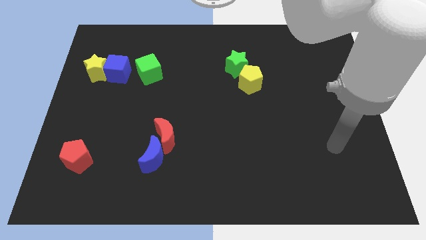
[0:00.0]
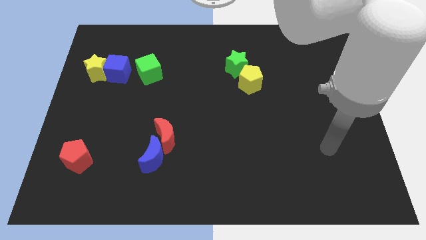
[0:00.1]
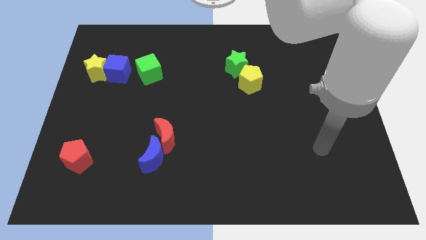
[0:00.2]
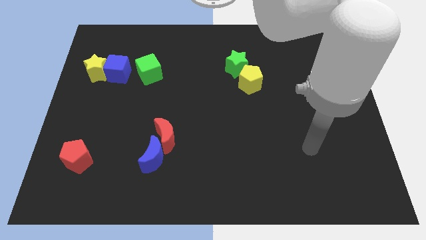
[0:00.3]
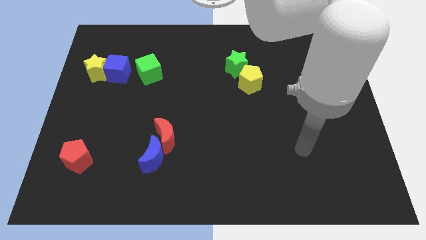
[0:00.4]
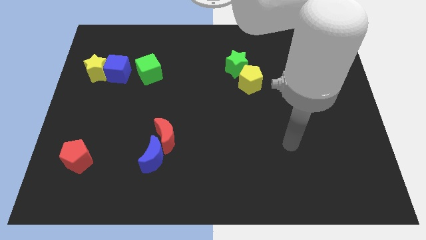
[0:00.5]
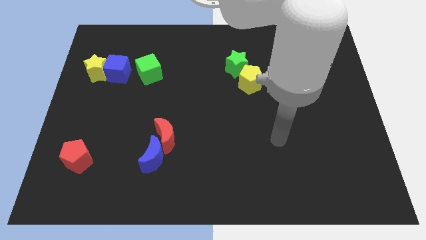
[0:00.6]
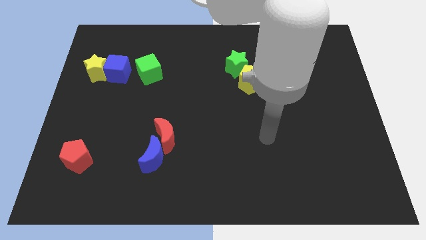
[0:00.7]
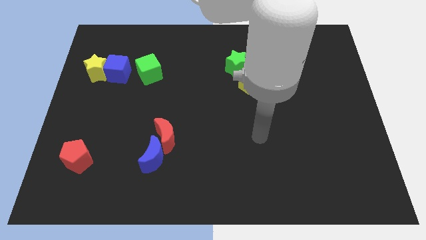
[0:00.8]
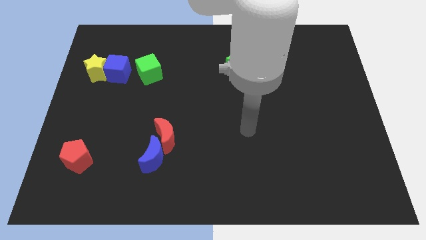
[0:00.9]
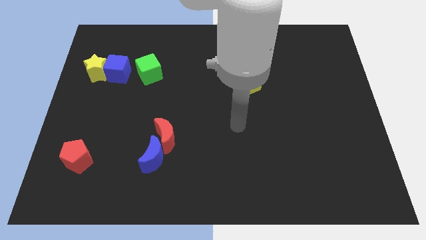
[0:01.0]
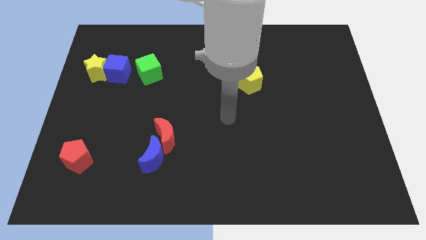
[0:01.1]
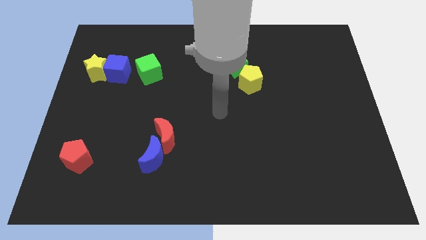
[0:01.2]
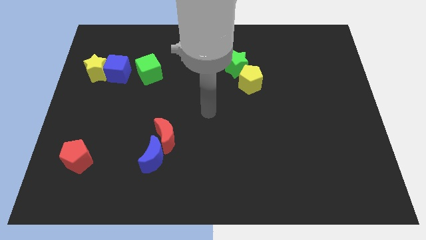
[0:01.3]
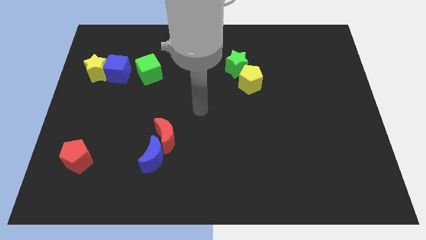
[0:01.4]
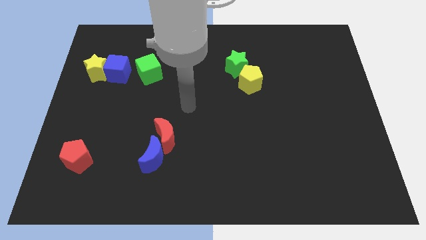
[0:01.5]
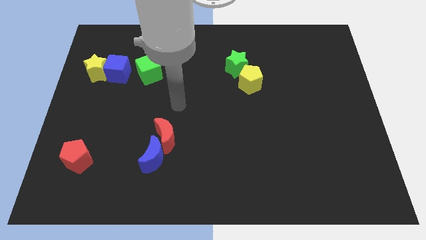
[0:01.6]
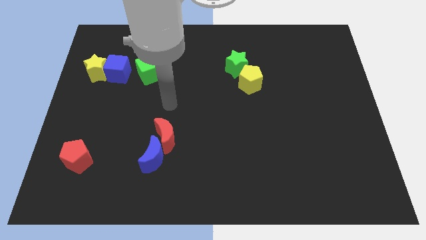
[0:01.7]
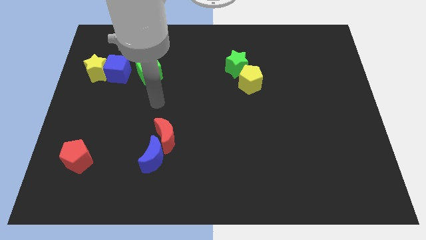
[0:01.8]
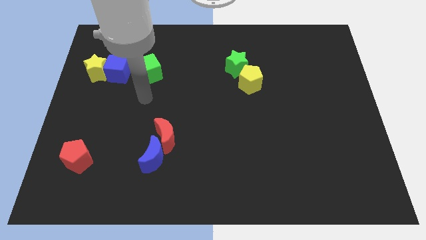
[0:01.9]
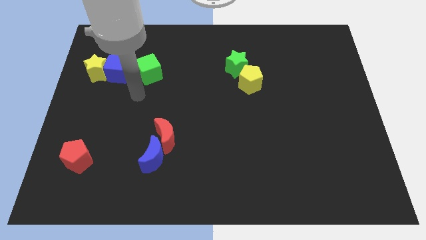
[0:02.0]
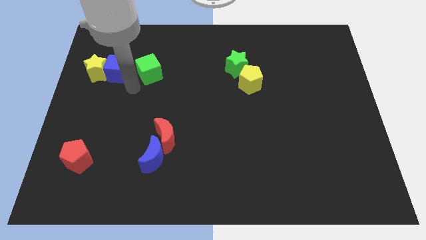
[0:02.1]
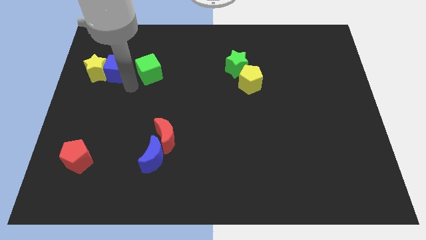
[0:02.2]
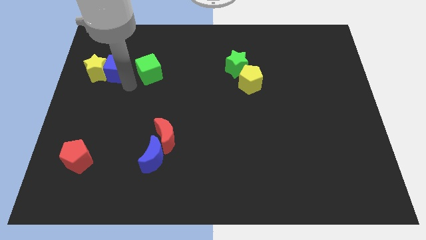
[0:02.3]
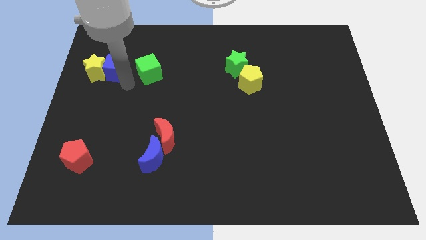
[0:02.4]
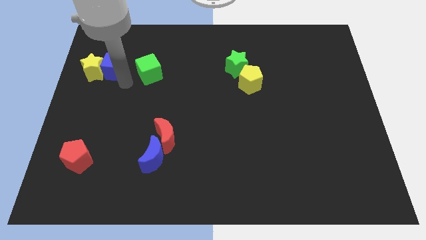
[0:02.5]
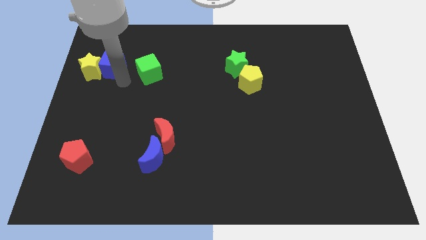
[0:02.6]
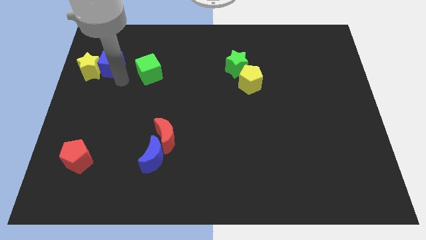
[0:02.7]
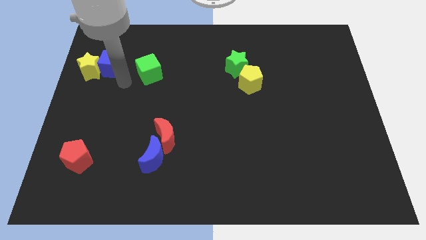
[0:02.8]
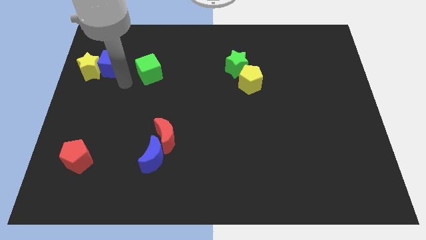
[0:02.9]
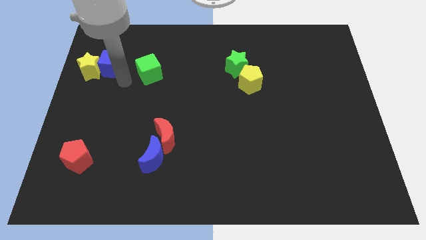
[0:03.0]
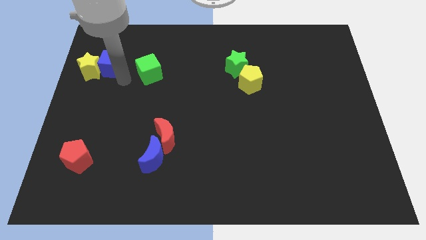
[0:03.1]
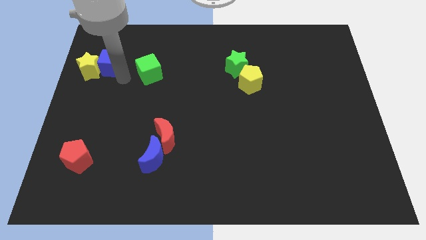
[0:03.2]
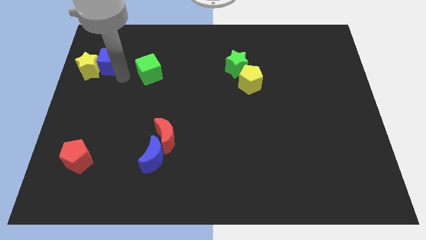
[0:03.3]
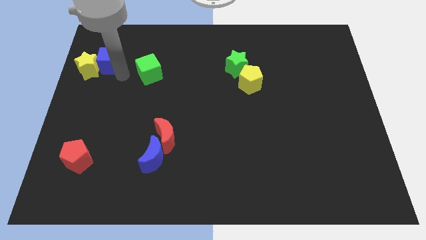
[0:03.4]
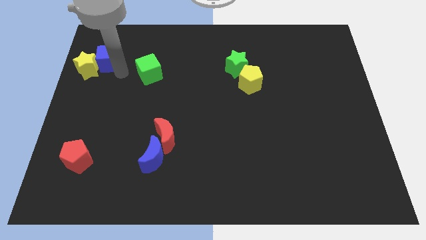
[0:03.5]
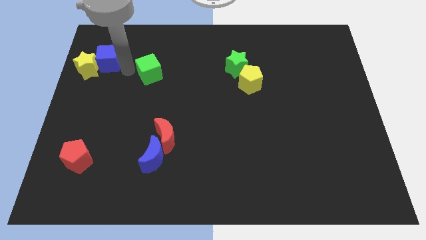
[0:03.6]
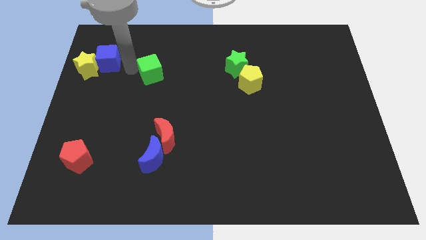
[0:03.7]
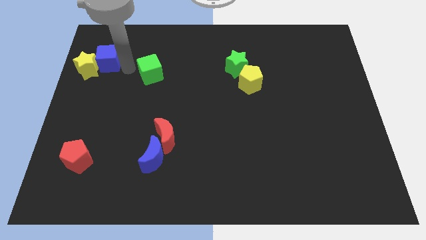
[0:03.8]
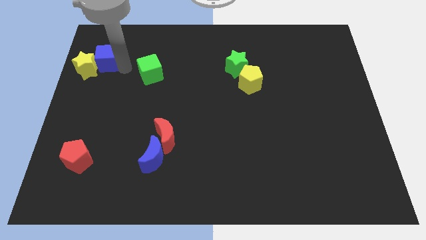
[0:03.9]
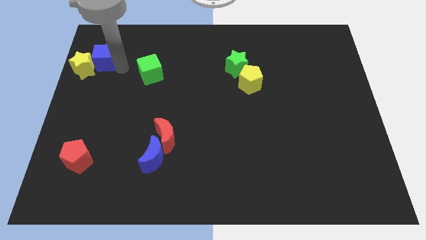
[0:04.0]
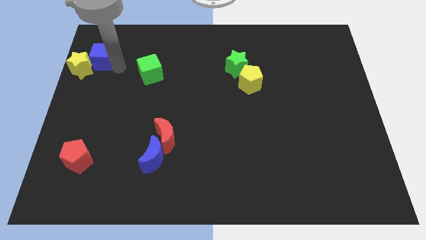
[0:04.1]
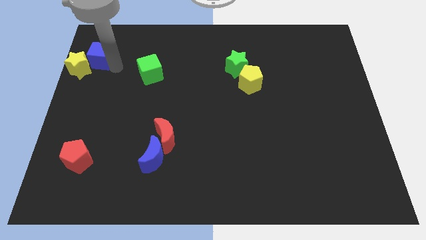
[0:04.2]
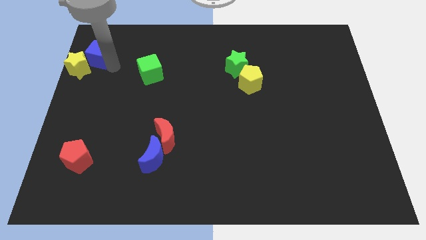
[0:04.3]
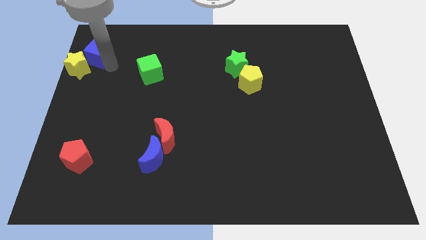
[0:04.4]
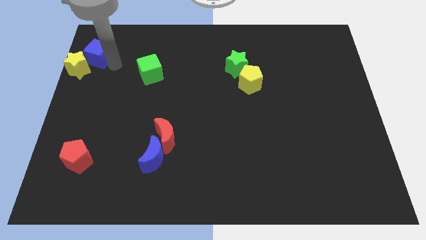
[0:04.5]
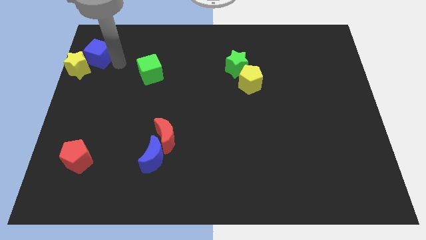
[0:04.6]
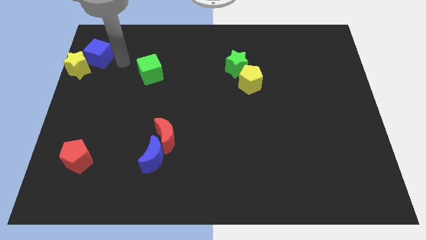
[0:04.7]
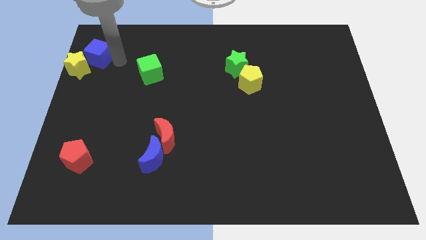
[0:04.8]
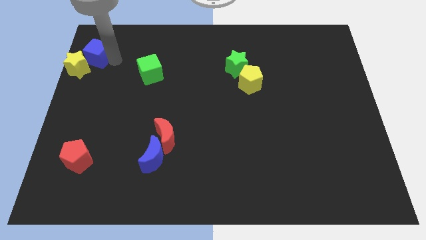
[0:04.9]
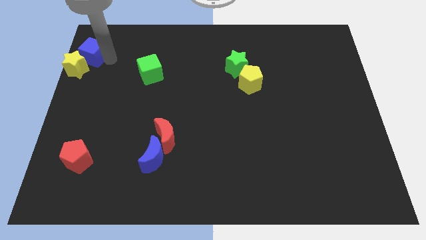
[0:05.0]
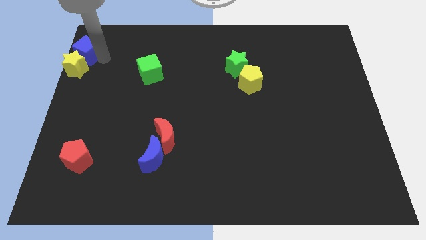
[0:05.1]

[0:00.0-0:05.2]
slide the blue cube to the upper left corner

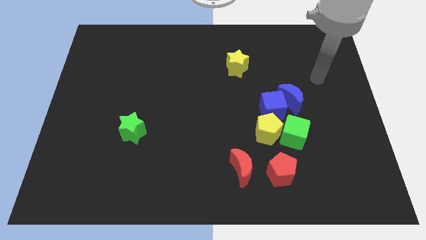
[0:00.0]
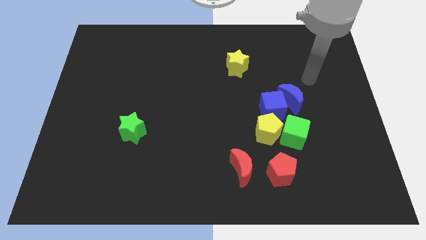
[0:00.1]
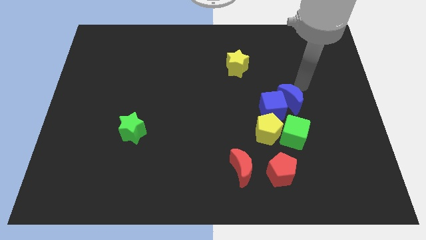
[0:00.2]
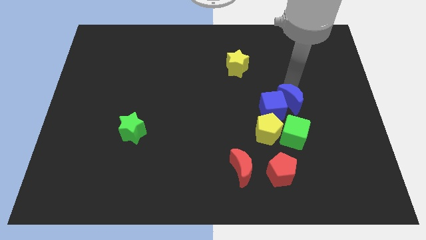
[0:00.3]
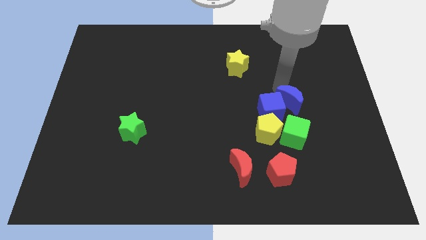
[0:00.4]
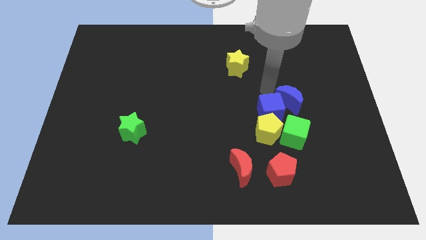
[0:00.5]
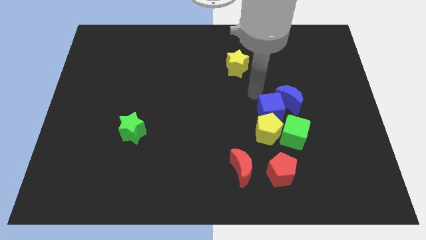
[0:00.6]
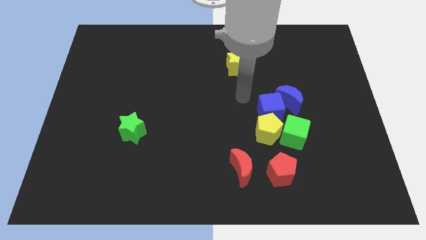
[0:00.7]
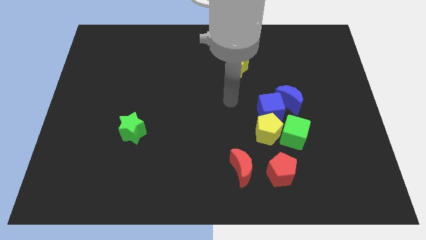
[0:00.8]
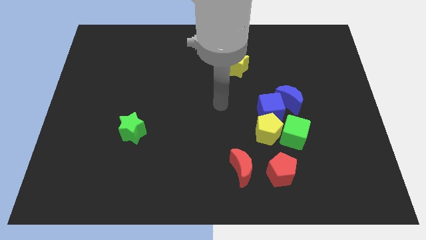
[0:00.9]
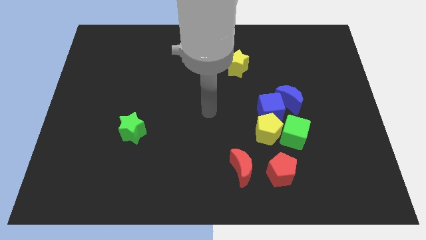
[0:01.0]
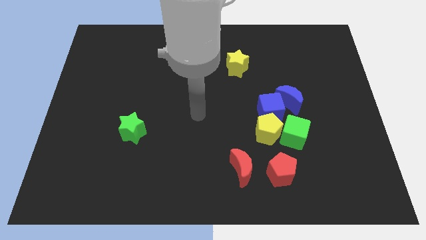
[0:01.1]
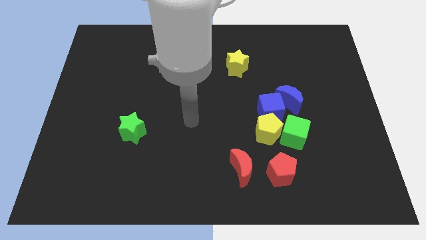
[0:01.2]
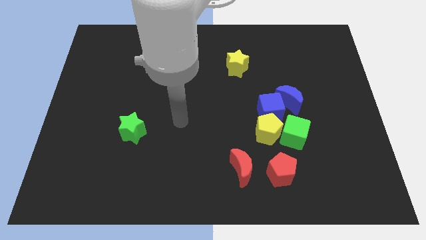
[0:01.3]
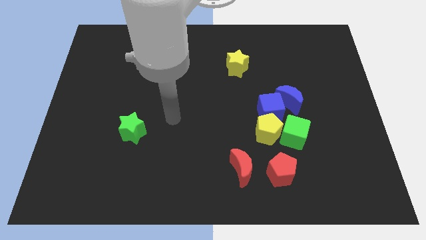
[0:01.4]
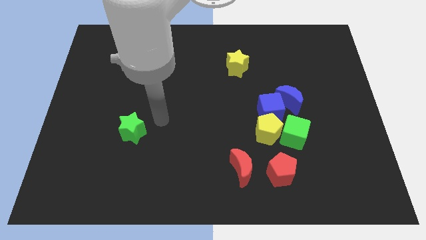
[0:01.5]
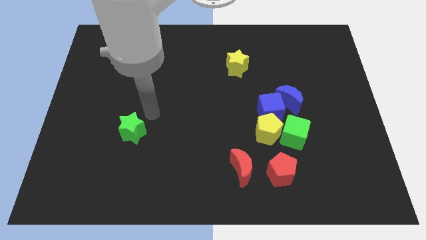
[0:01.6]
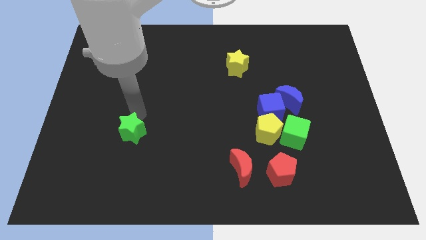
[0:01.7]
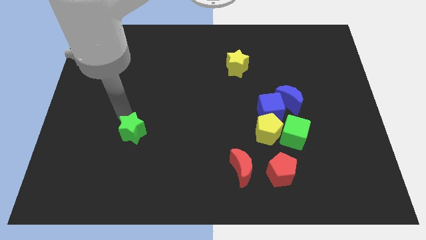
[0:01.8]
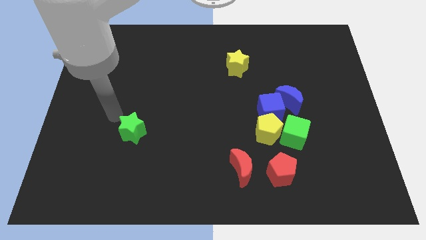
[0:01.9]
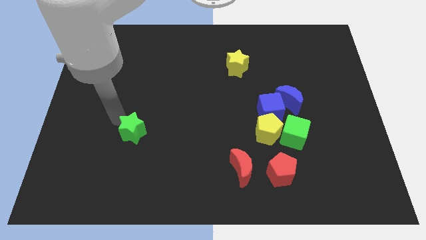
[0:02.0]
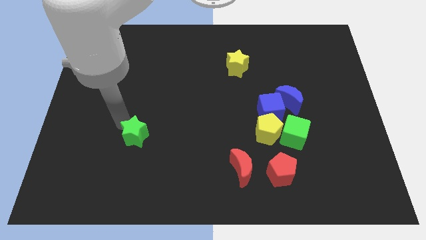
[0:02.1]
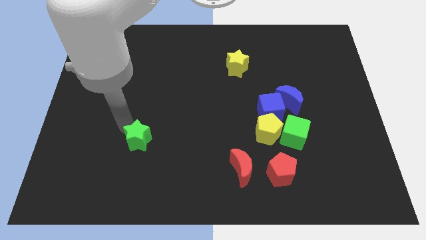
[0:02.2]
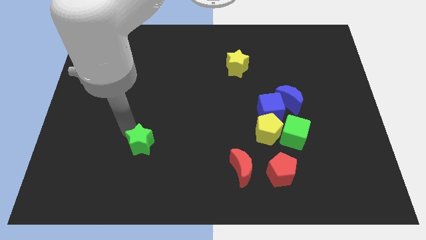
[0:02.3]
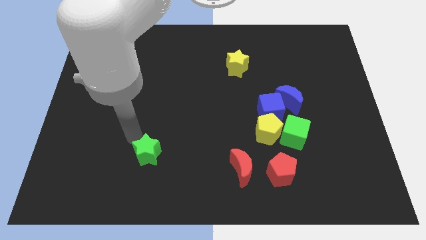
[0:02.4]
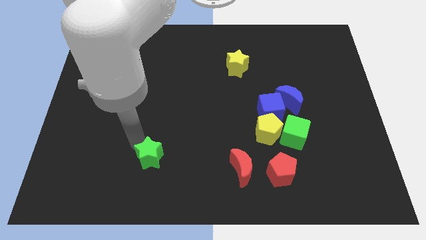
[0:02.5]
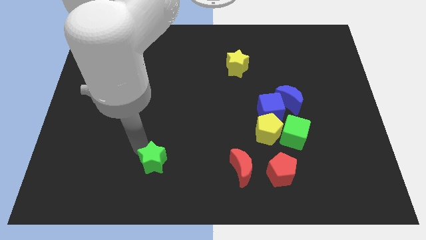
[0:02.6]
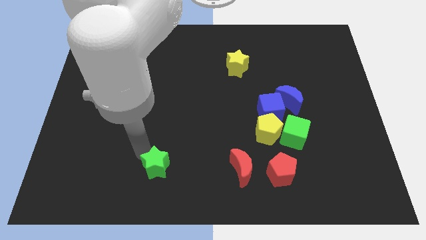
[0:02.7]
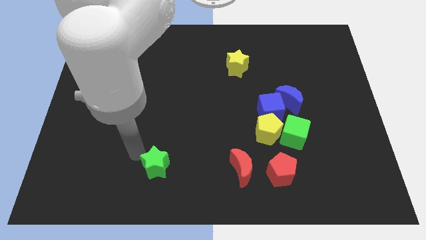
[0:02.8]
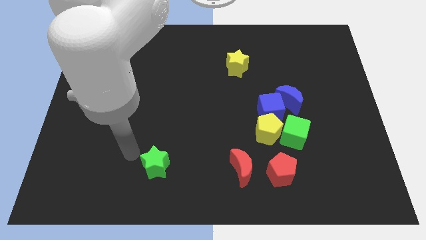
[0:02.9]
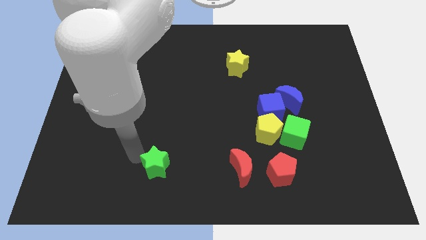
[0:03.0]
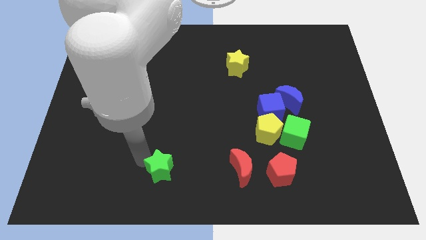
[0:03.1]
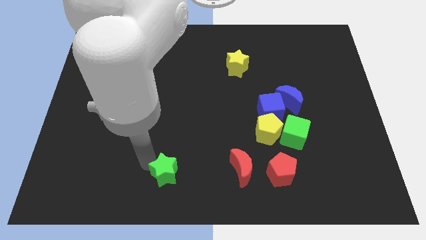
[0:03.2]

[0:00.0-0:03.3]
put the green star to the bottom side
